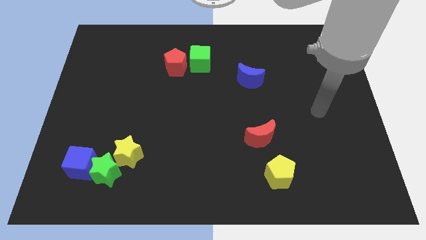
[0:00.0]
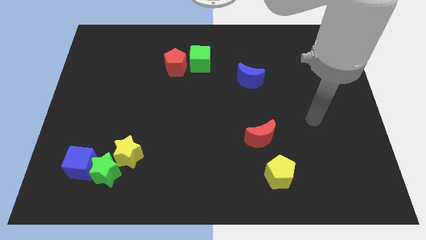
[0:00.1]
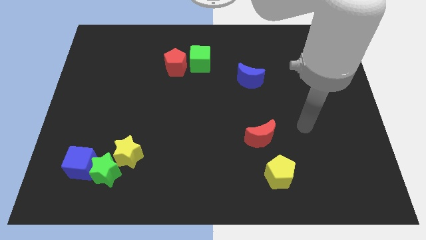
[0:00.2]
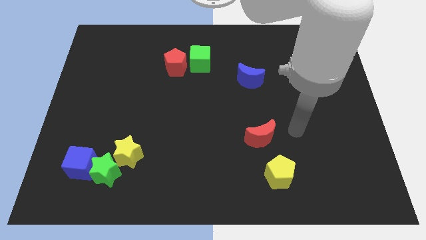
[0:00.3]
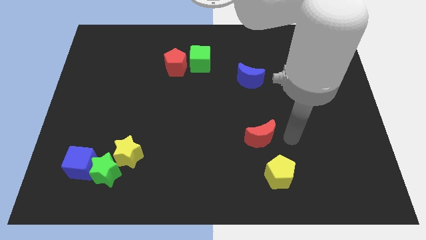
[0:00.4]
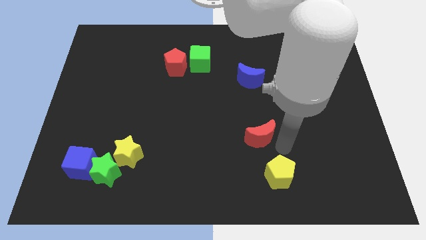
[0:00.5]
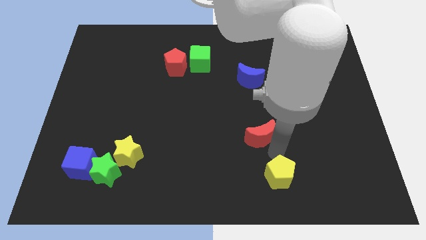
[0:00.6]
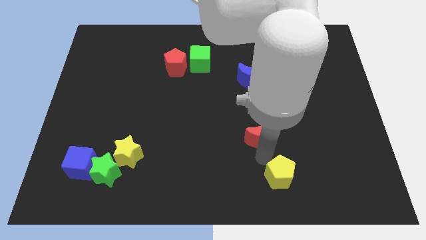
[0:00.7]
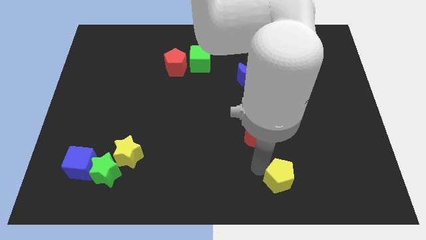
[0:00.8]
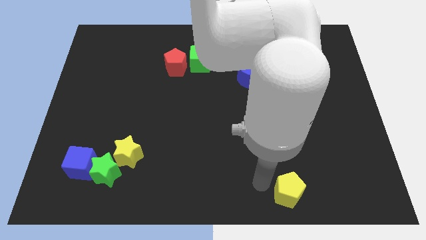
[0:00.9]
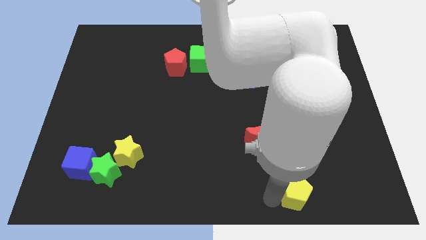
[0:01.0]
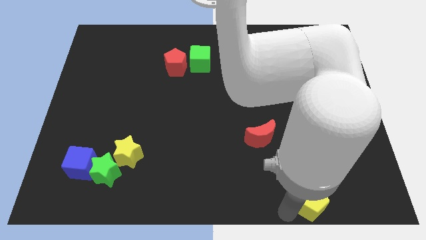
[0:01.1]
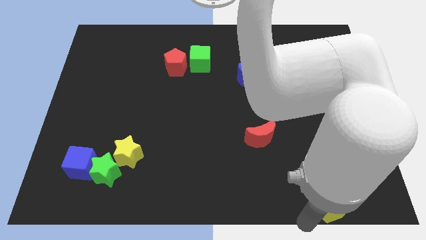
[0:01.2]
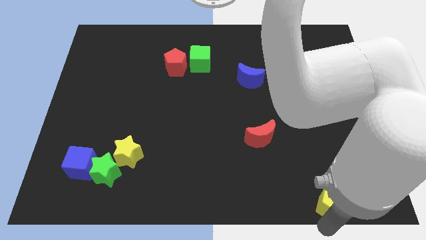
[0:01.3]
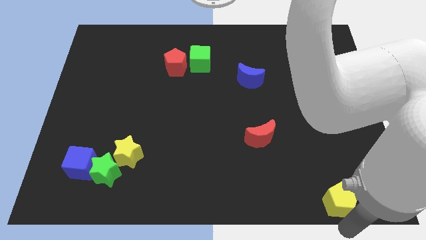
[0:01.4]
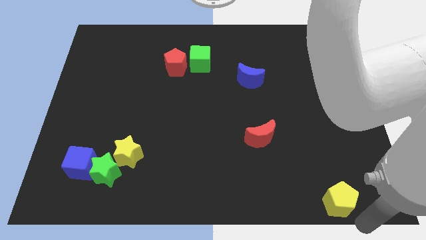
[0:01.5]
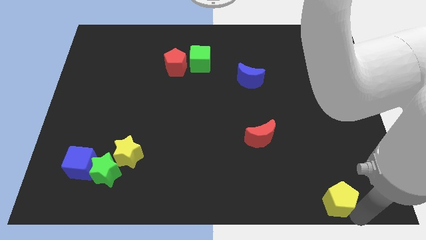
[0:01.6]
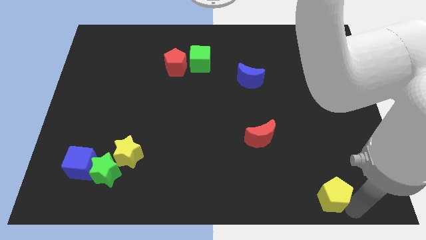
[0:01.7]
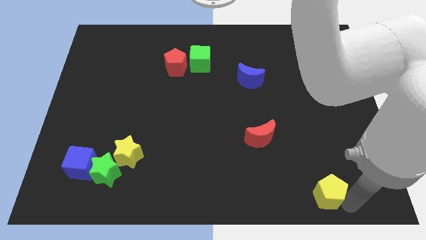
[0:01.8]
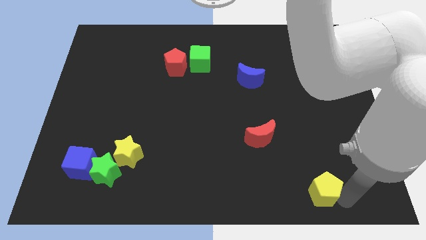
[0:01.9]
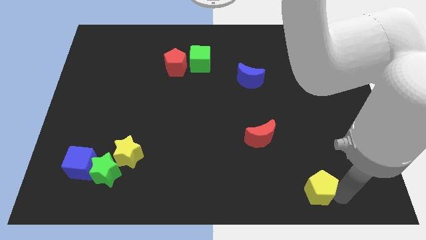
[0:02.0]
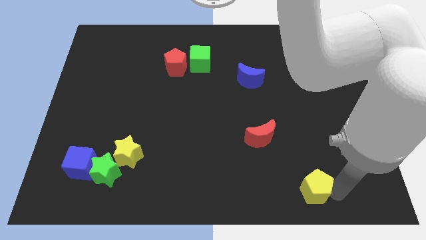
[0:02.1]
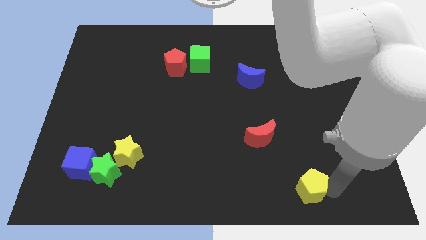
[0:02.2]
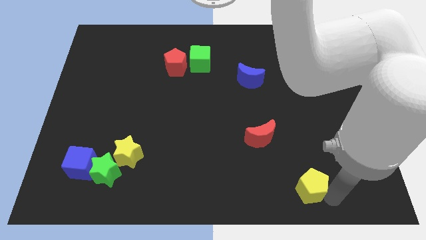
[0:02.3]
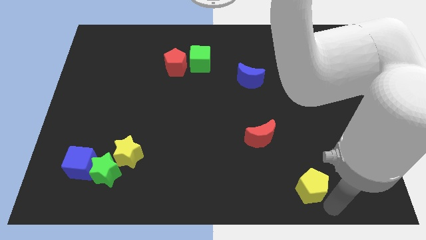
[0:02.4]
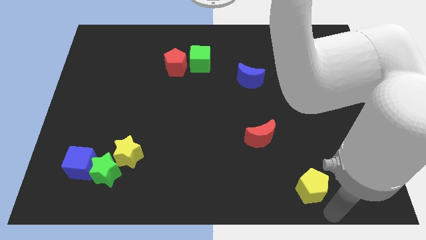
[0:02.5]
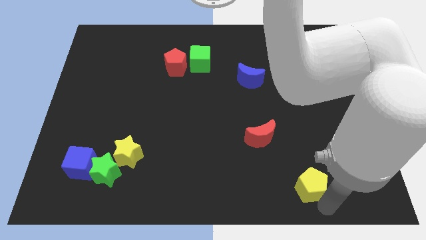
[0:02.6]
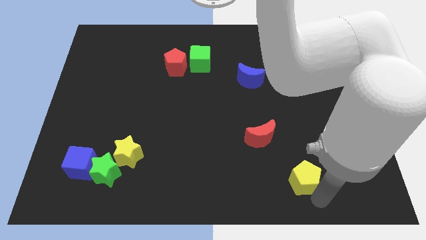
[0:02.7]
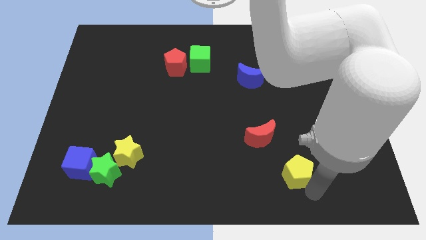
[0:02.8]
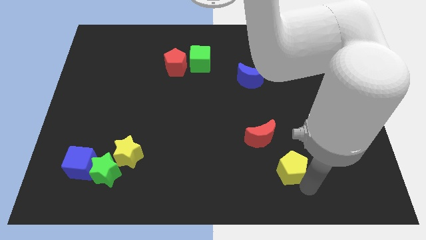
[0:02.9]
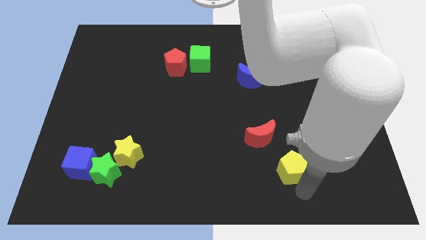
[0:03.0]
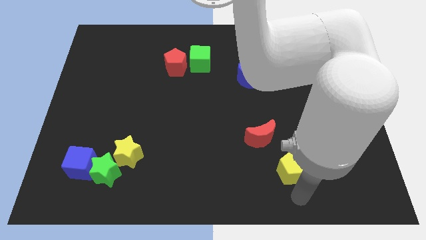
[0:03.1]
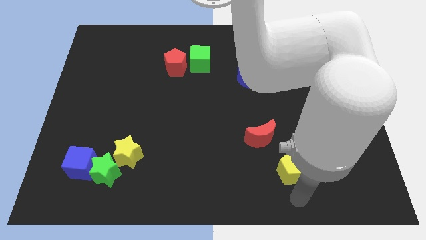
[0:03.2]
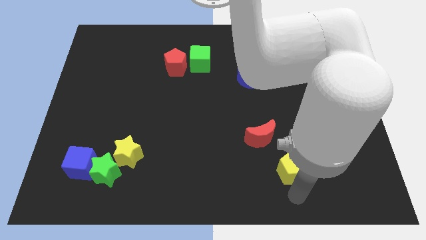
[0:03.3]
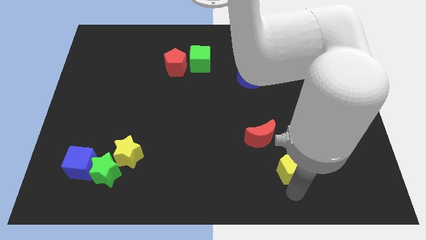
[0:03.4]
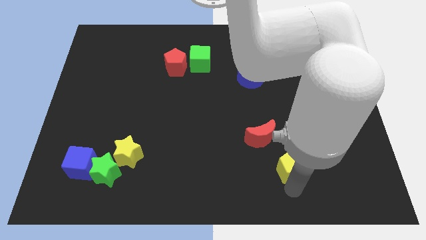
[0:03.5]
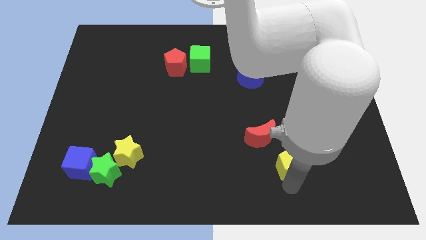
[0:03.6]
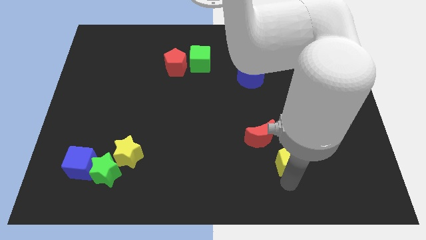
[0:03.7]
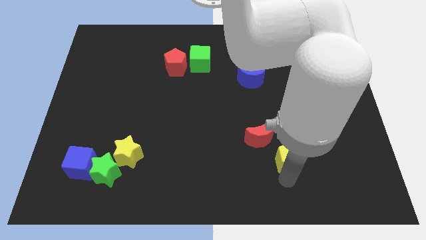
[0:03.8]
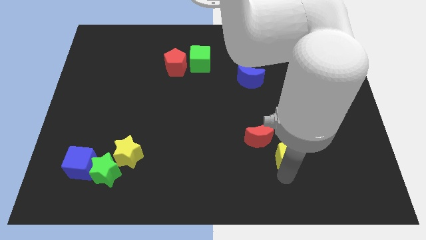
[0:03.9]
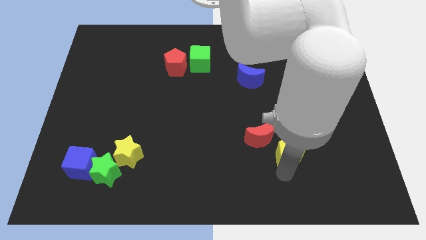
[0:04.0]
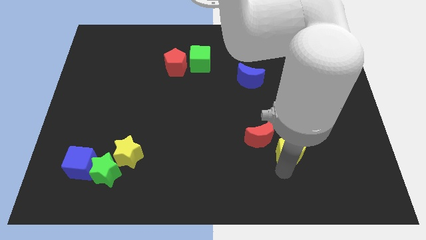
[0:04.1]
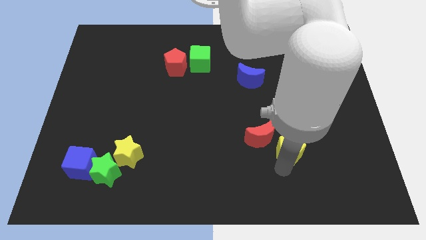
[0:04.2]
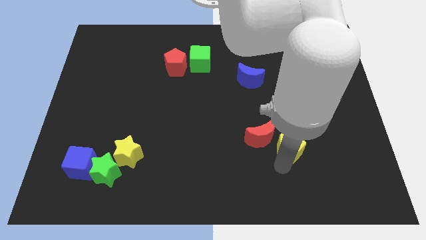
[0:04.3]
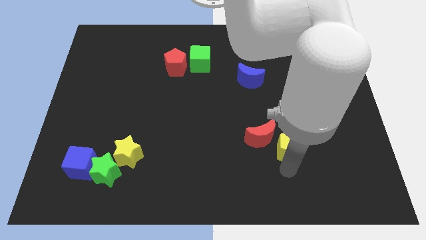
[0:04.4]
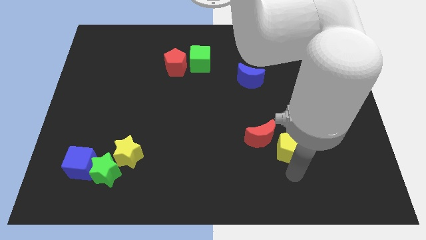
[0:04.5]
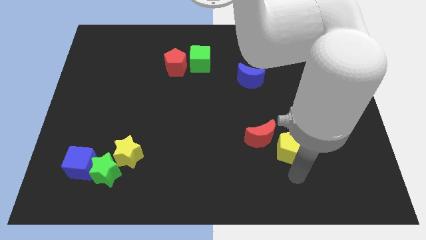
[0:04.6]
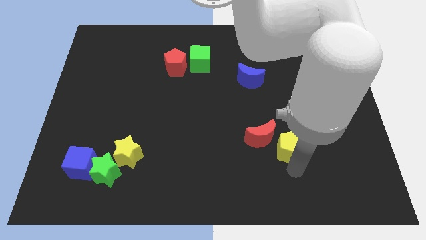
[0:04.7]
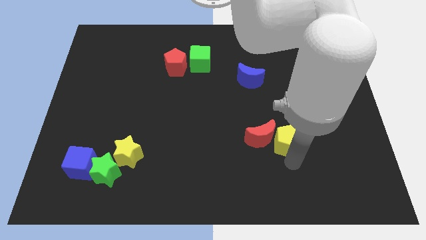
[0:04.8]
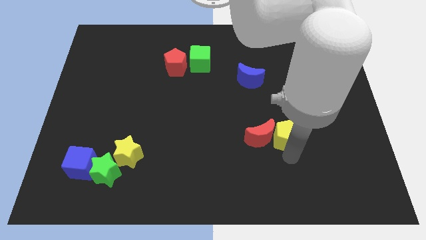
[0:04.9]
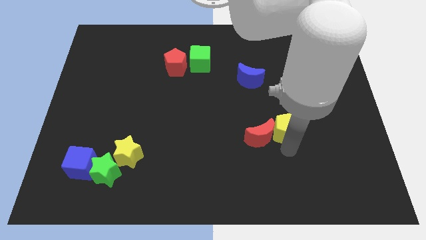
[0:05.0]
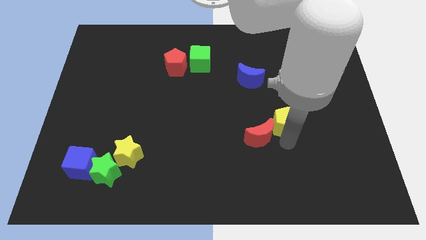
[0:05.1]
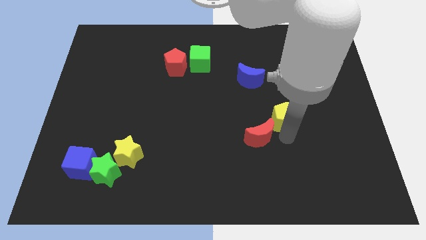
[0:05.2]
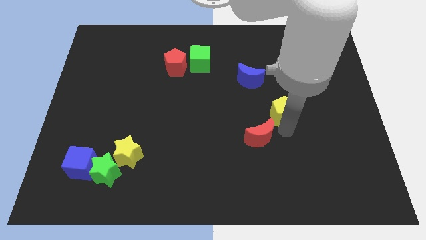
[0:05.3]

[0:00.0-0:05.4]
slide the yellow pentagon to the bottom right side of the blue moon

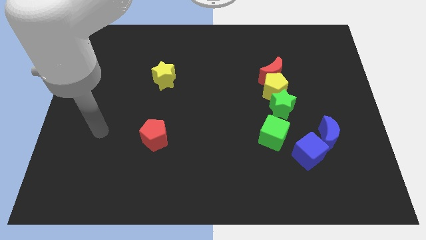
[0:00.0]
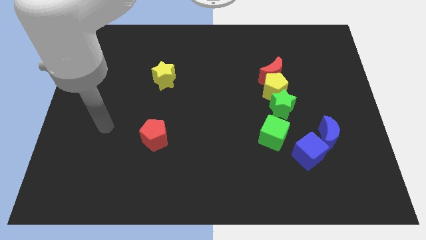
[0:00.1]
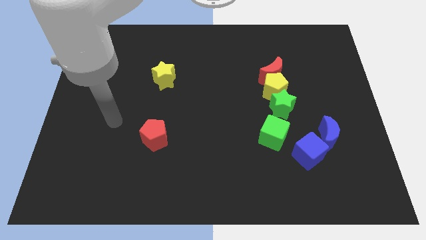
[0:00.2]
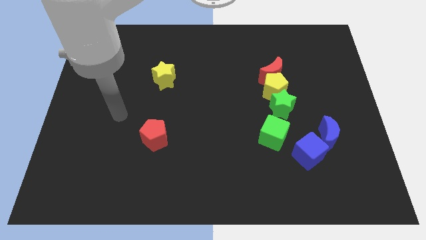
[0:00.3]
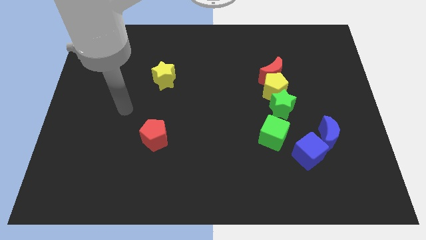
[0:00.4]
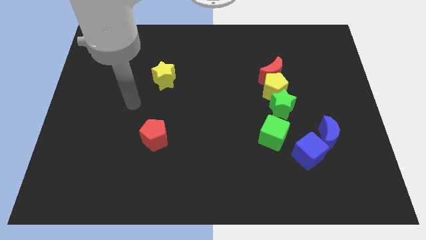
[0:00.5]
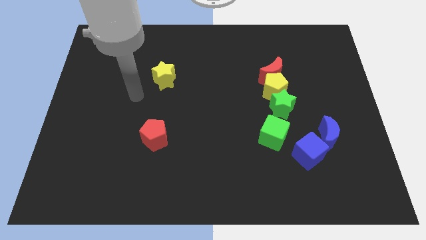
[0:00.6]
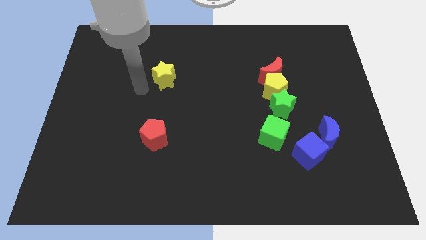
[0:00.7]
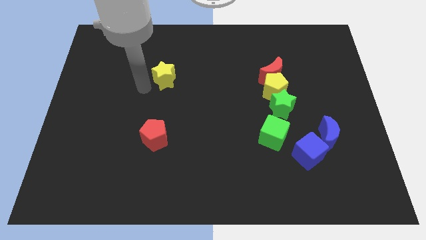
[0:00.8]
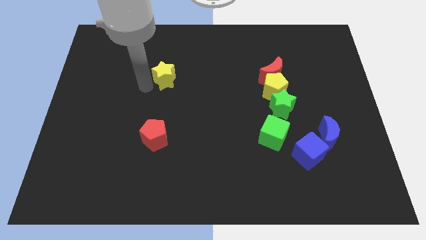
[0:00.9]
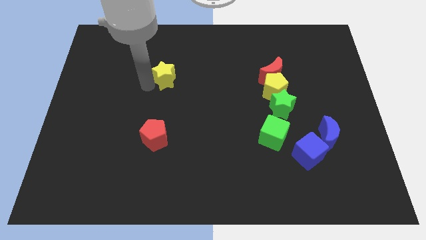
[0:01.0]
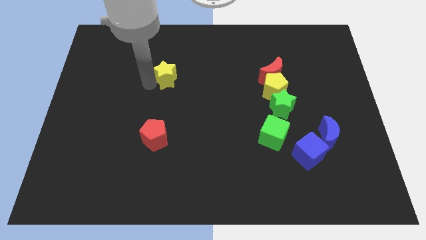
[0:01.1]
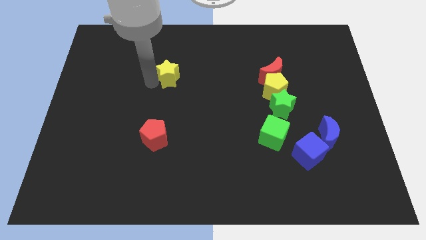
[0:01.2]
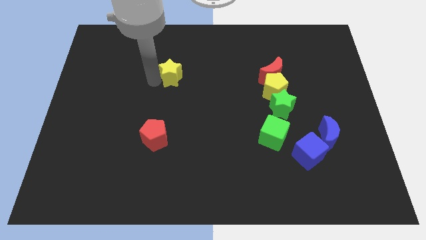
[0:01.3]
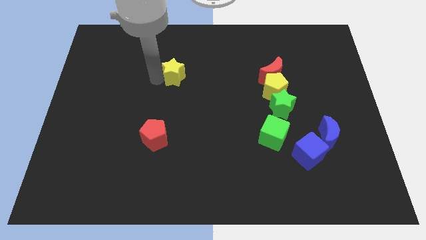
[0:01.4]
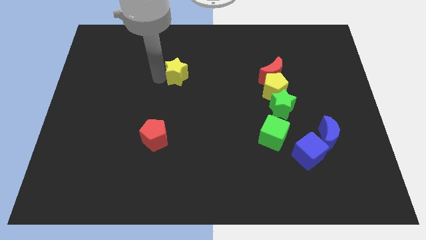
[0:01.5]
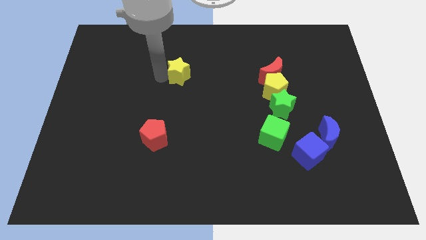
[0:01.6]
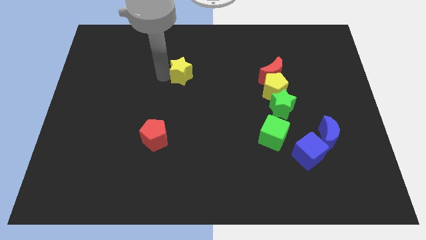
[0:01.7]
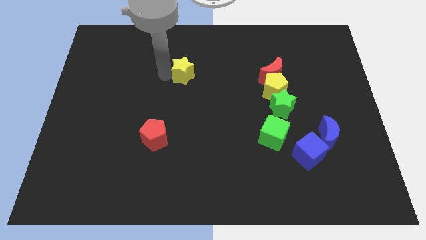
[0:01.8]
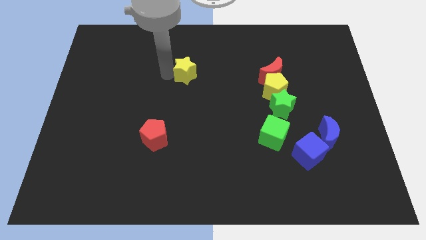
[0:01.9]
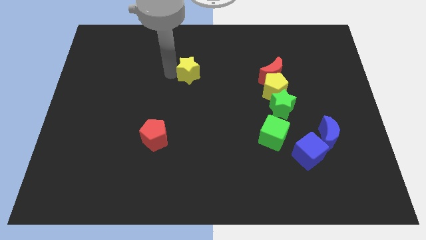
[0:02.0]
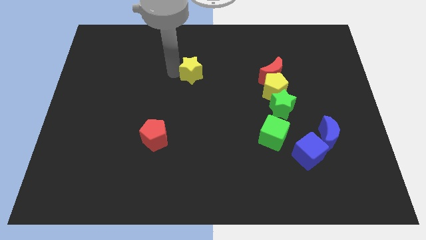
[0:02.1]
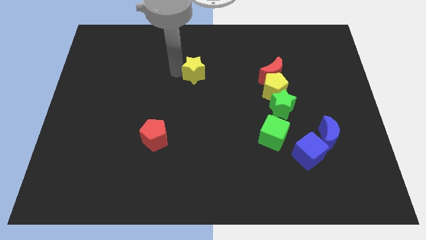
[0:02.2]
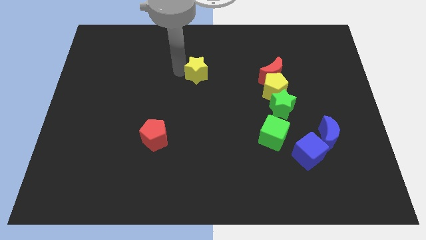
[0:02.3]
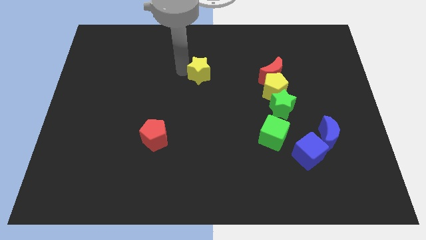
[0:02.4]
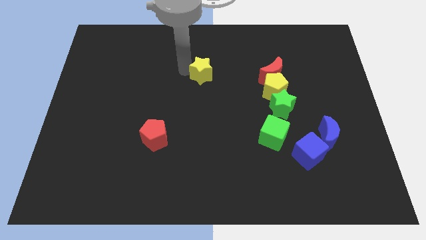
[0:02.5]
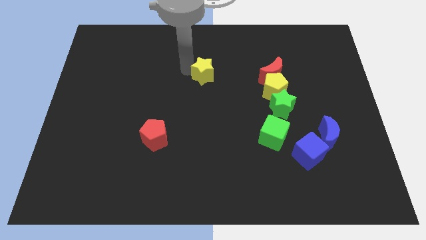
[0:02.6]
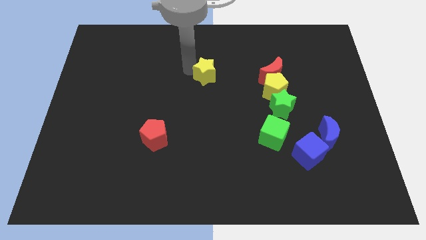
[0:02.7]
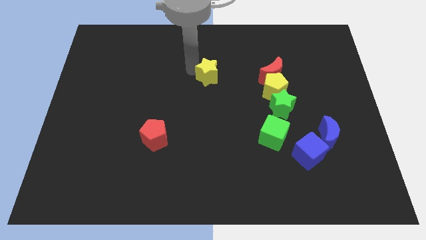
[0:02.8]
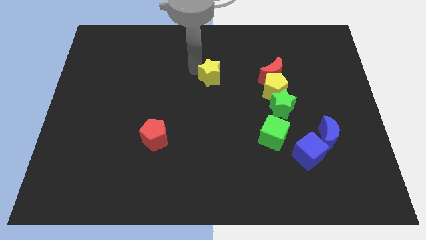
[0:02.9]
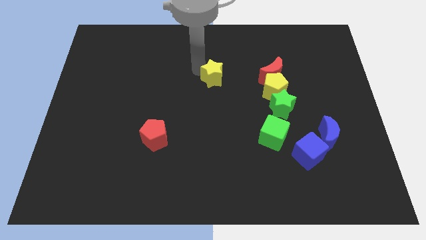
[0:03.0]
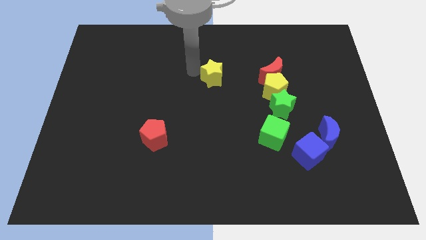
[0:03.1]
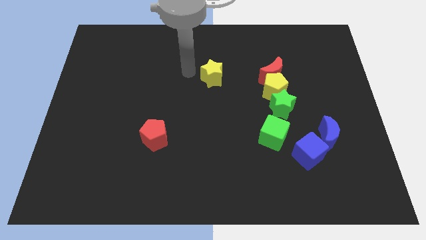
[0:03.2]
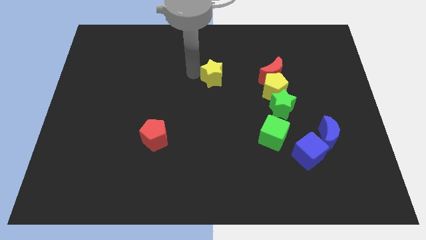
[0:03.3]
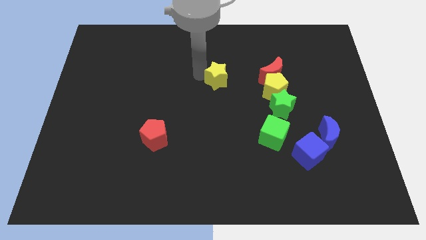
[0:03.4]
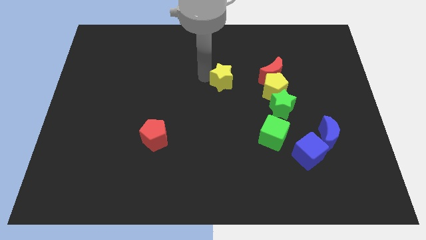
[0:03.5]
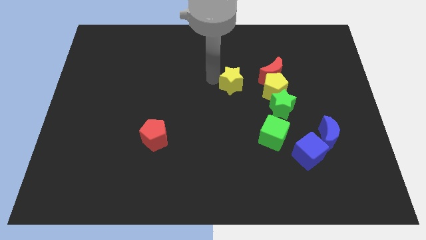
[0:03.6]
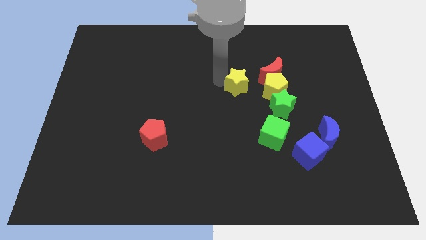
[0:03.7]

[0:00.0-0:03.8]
put the yellow star to the top left of the green star
